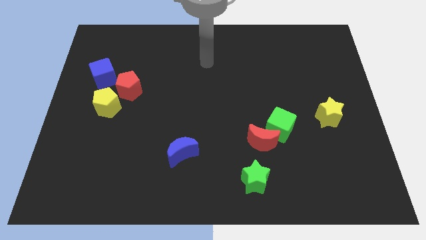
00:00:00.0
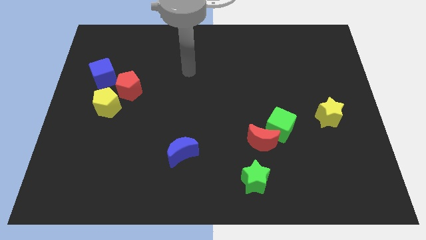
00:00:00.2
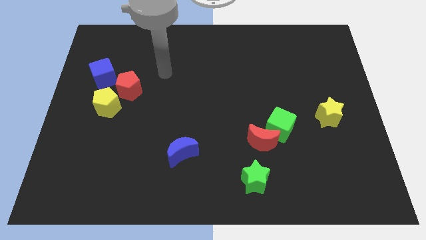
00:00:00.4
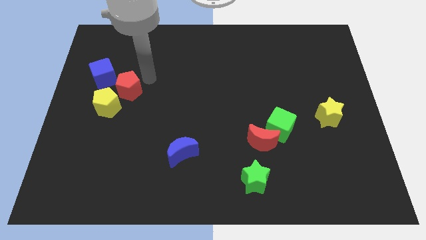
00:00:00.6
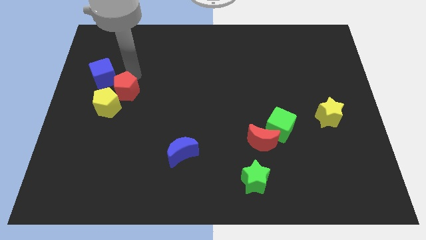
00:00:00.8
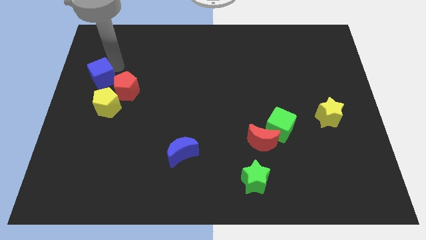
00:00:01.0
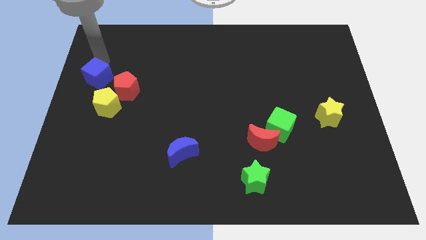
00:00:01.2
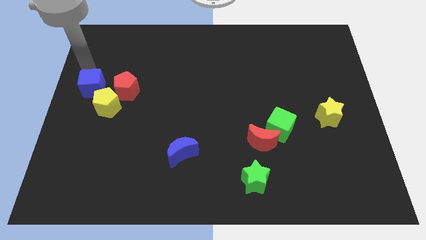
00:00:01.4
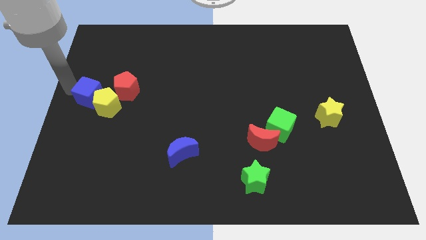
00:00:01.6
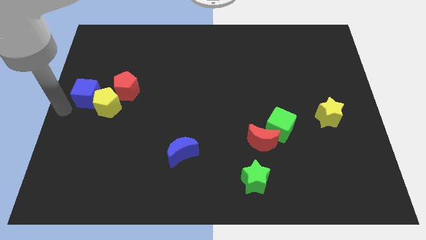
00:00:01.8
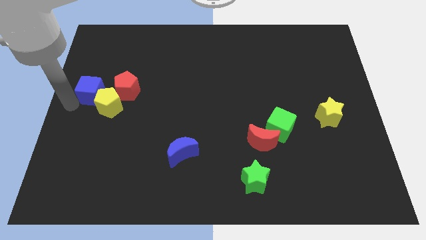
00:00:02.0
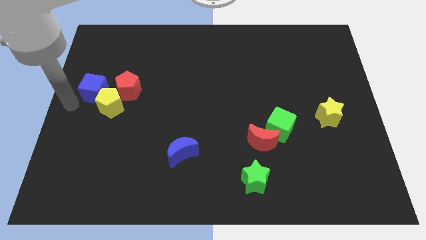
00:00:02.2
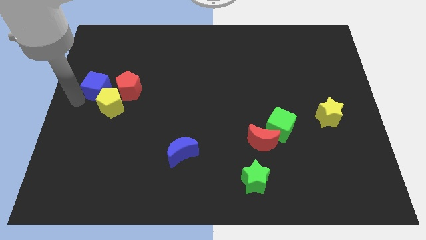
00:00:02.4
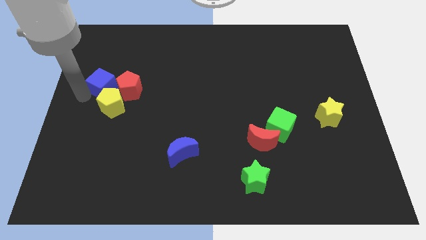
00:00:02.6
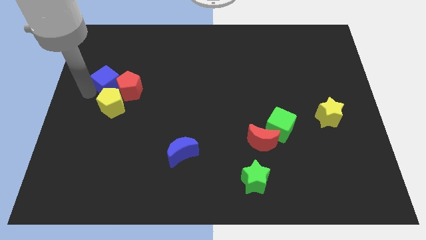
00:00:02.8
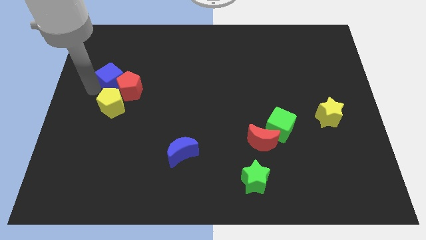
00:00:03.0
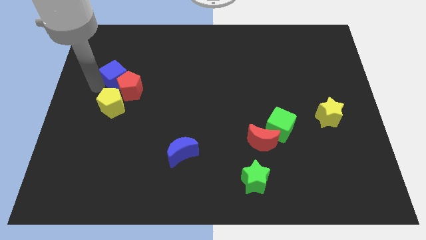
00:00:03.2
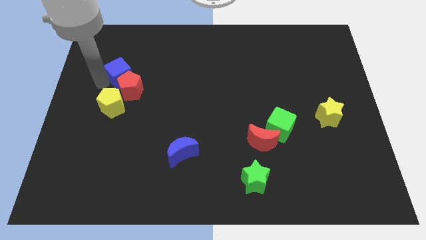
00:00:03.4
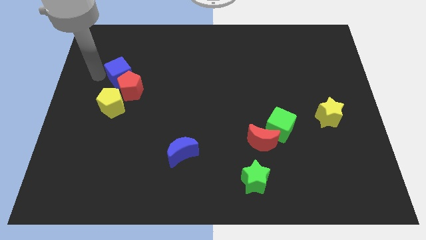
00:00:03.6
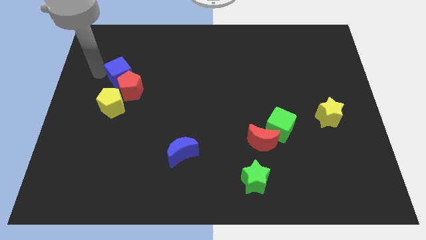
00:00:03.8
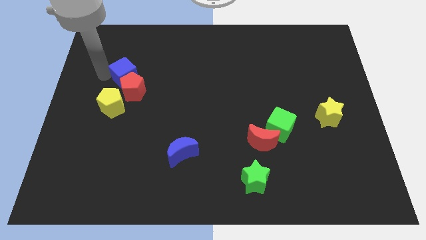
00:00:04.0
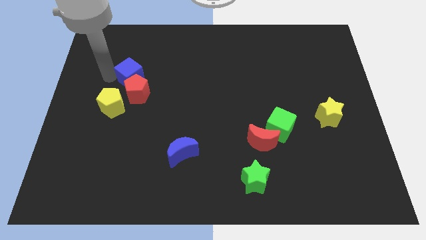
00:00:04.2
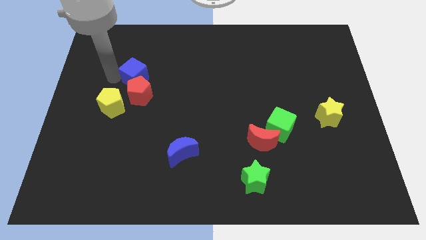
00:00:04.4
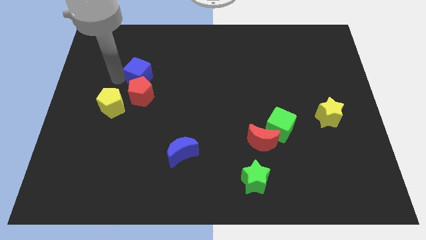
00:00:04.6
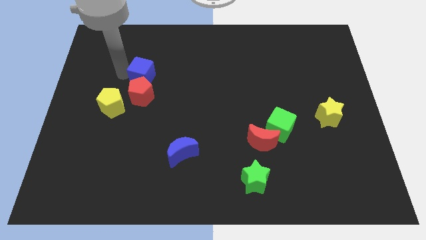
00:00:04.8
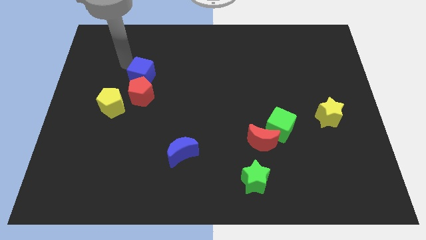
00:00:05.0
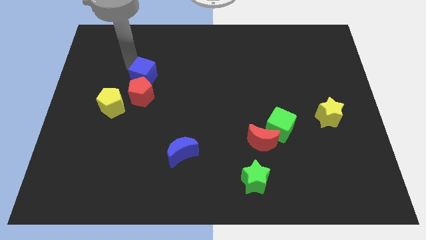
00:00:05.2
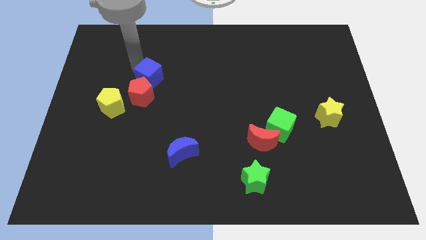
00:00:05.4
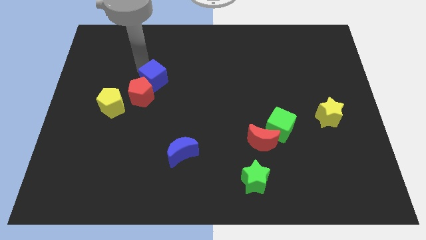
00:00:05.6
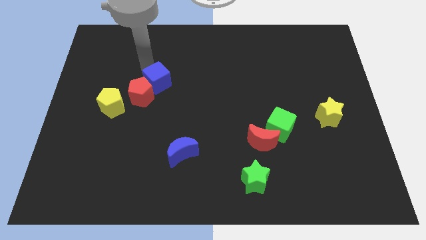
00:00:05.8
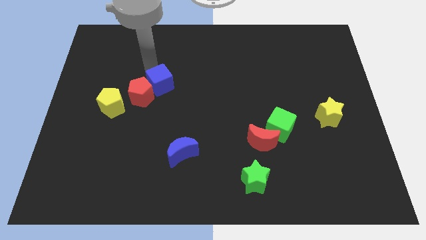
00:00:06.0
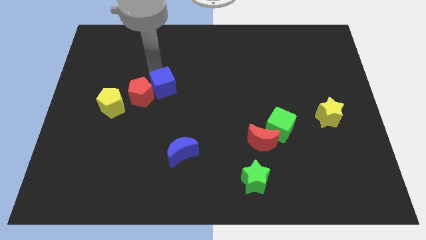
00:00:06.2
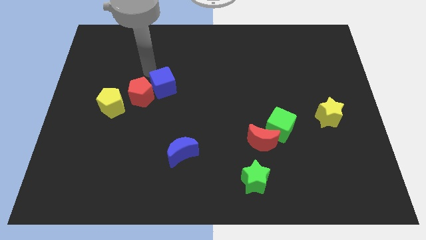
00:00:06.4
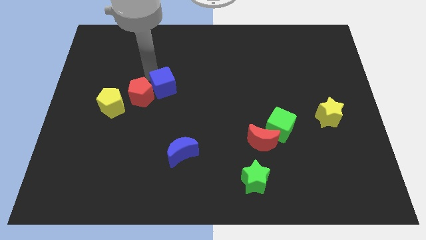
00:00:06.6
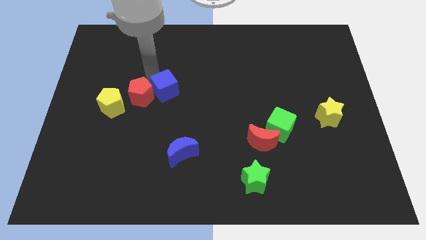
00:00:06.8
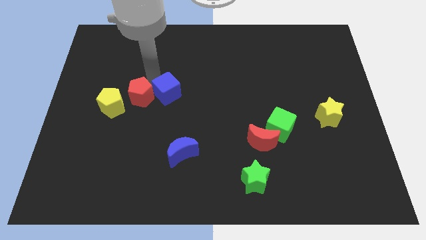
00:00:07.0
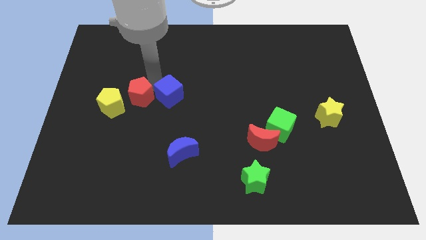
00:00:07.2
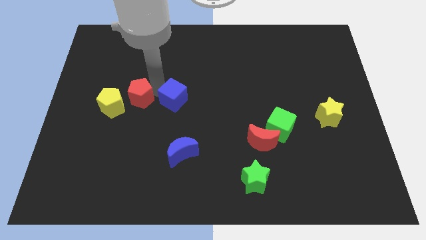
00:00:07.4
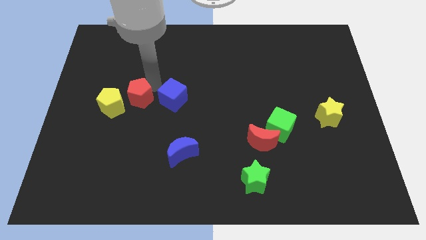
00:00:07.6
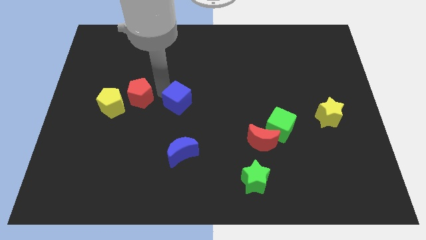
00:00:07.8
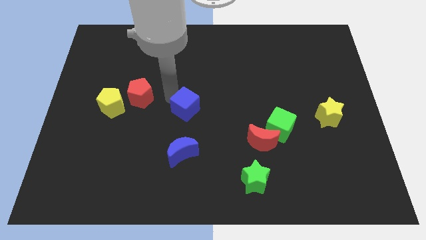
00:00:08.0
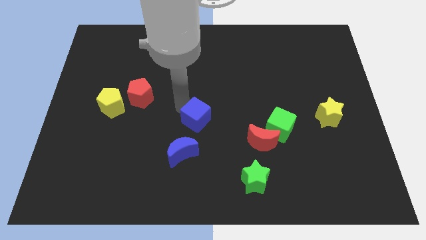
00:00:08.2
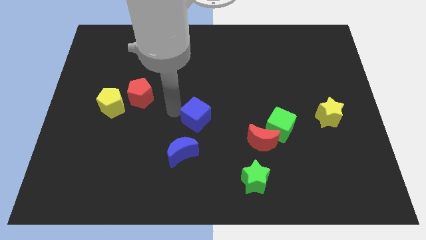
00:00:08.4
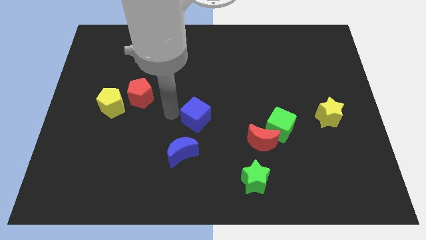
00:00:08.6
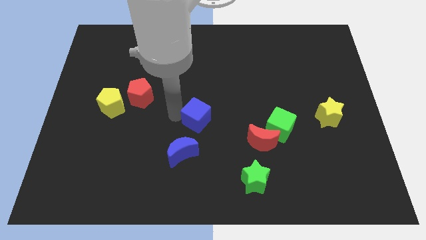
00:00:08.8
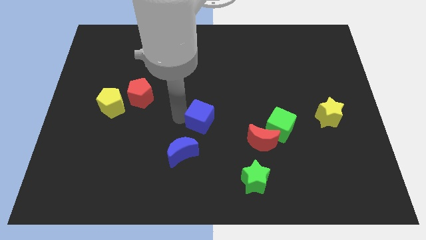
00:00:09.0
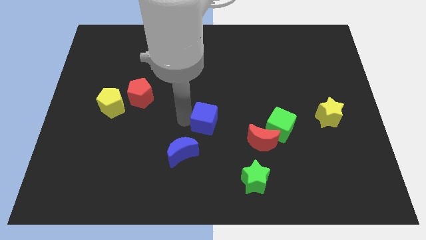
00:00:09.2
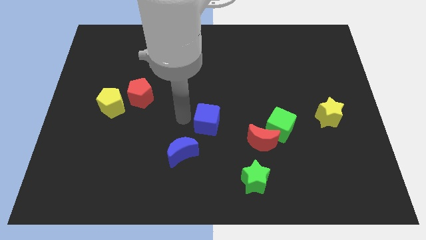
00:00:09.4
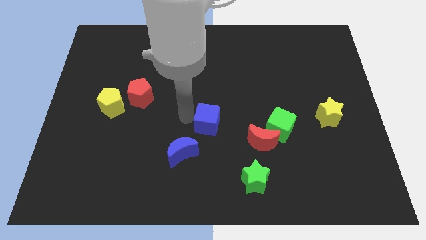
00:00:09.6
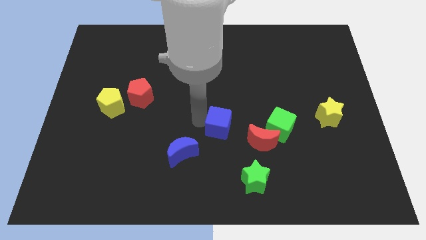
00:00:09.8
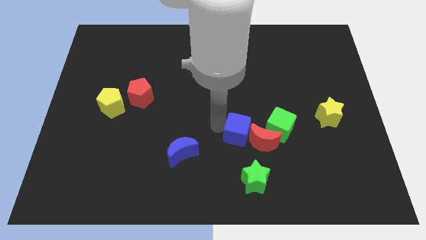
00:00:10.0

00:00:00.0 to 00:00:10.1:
slide the blue cube close to the red moon

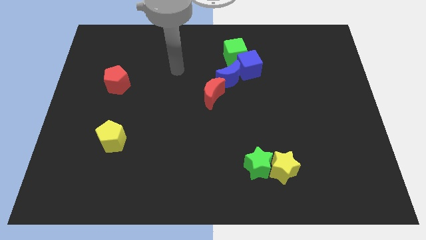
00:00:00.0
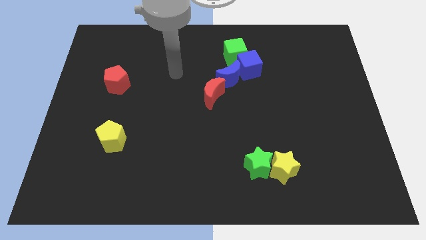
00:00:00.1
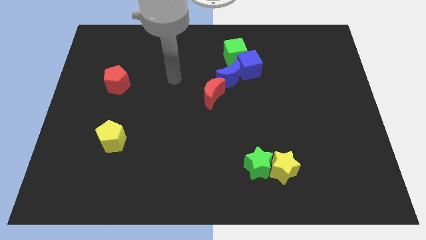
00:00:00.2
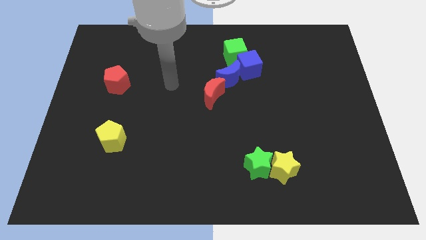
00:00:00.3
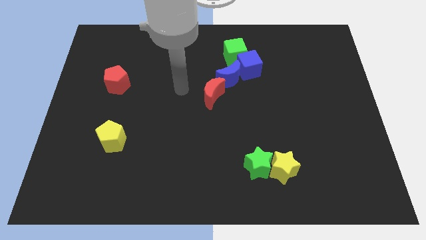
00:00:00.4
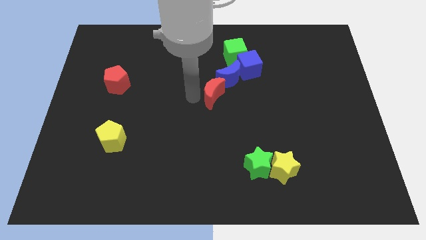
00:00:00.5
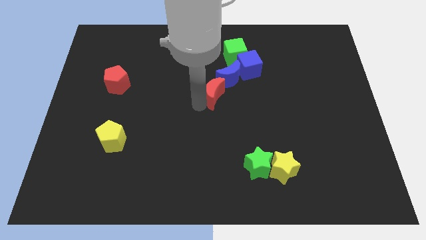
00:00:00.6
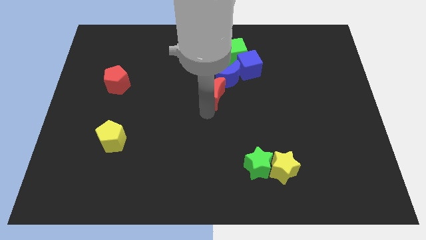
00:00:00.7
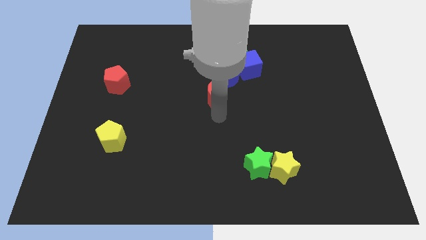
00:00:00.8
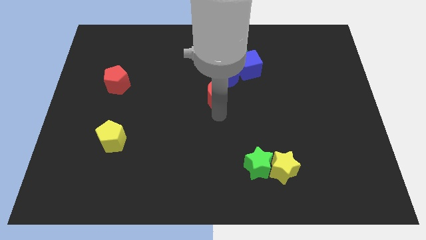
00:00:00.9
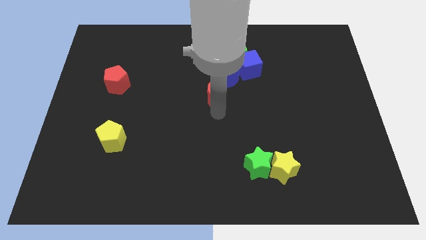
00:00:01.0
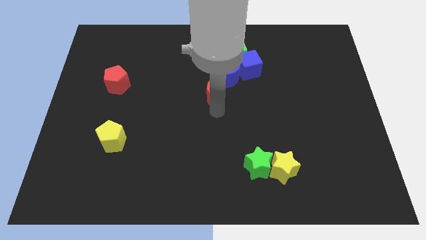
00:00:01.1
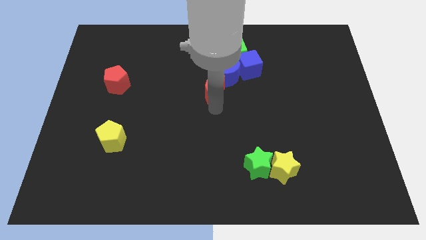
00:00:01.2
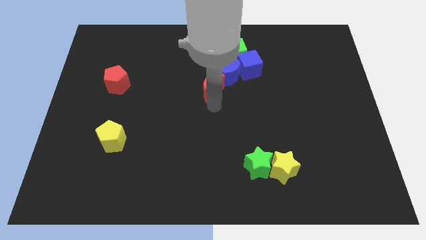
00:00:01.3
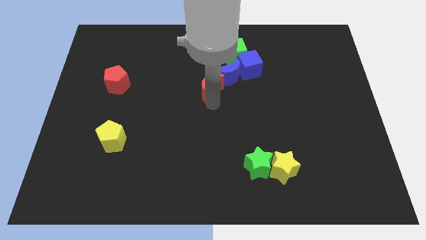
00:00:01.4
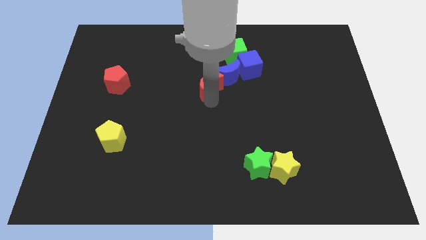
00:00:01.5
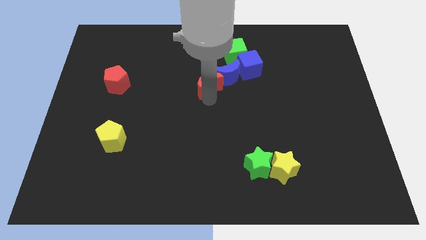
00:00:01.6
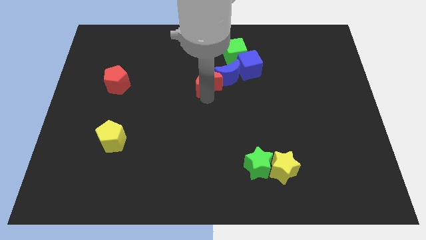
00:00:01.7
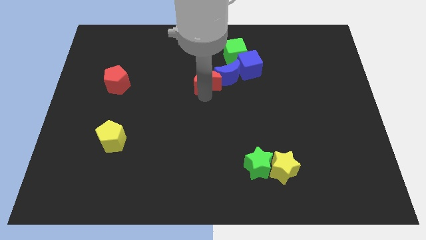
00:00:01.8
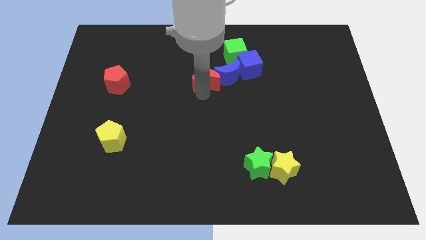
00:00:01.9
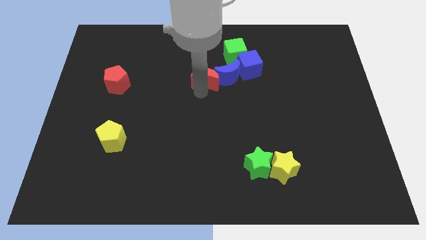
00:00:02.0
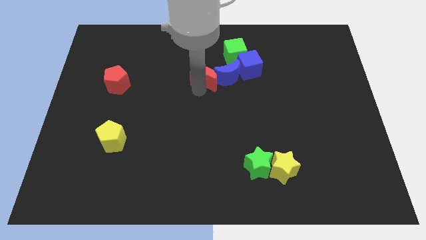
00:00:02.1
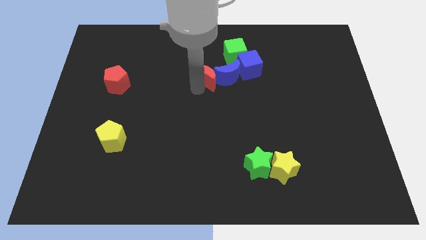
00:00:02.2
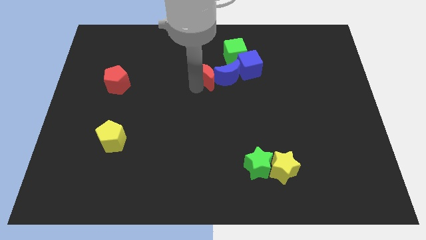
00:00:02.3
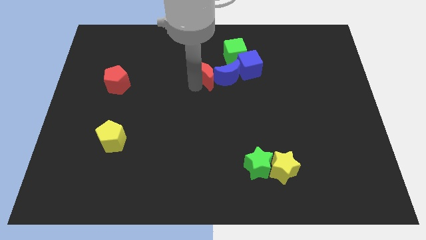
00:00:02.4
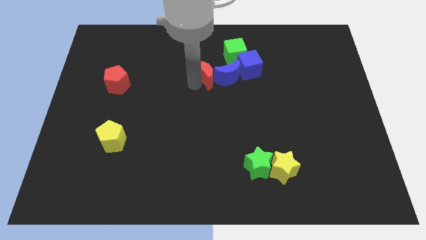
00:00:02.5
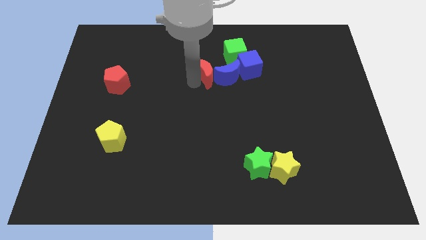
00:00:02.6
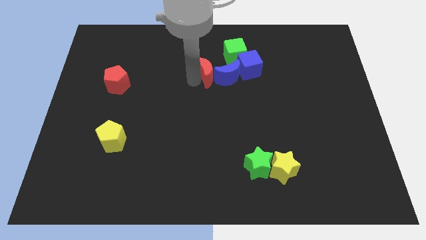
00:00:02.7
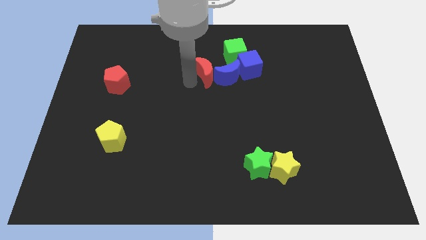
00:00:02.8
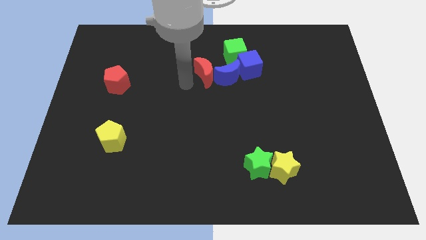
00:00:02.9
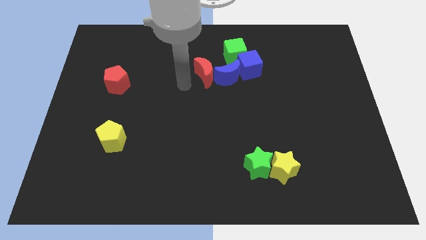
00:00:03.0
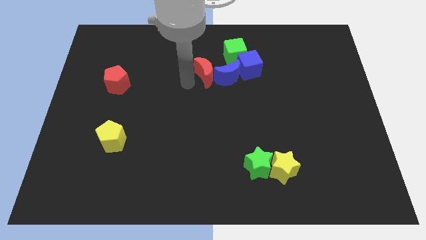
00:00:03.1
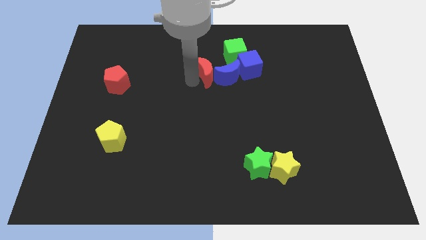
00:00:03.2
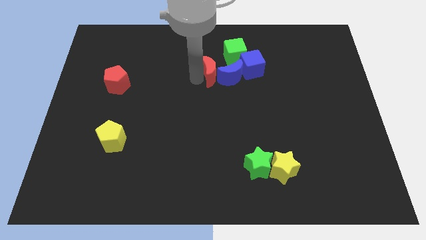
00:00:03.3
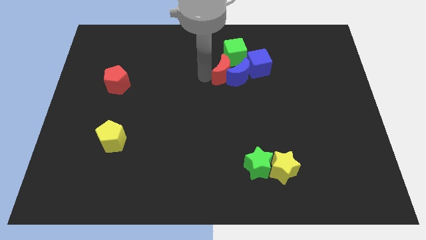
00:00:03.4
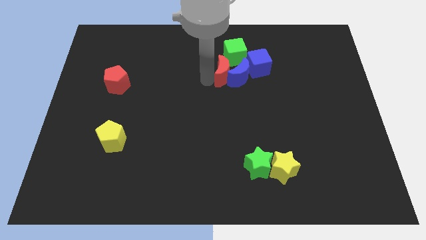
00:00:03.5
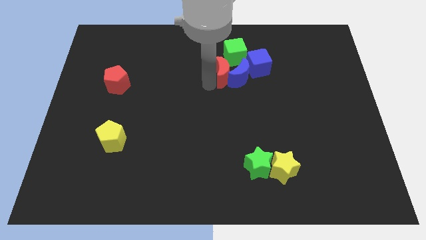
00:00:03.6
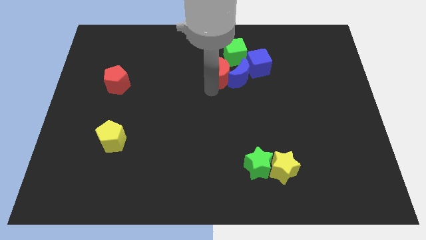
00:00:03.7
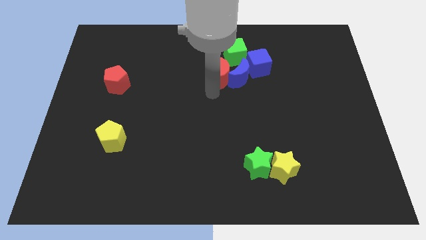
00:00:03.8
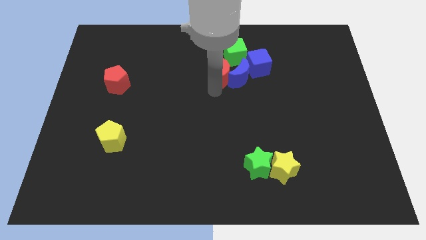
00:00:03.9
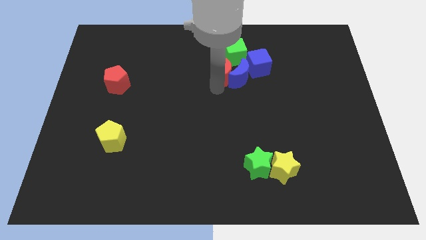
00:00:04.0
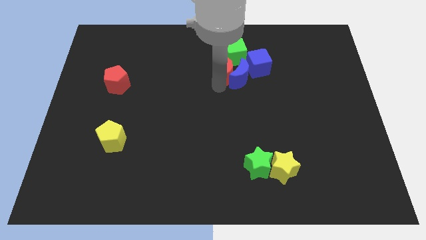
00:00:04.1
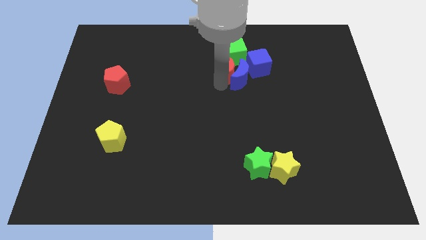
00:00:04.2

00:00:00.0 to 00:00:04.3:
slide the red moon close to the green cube
